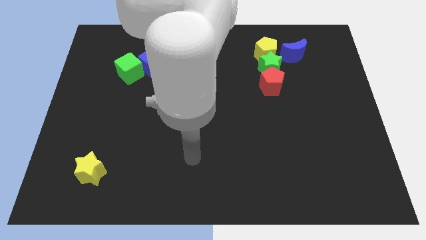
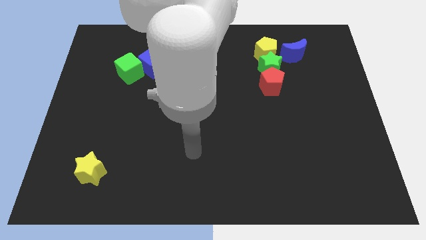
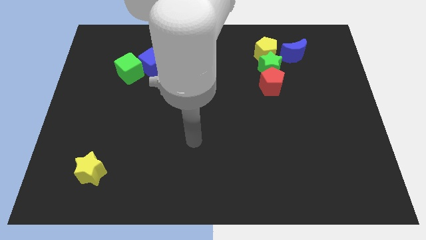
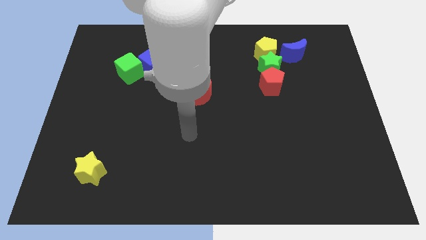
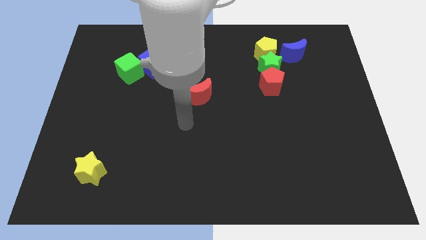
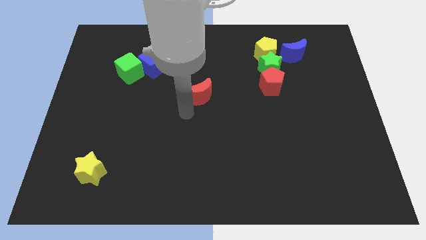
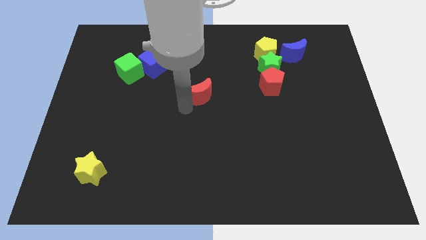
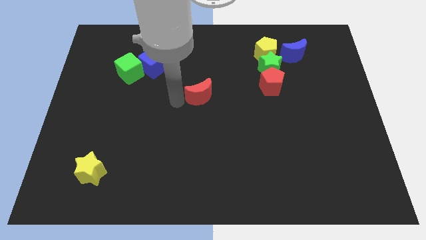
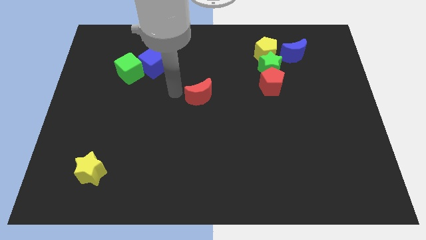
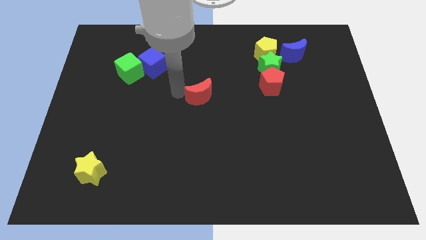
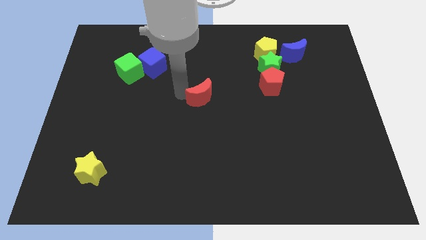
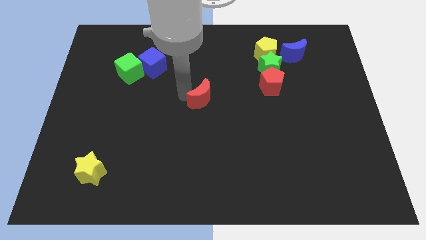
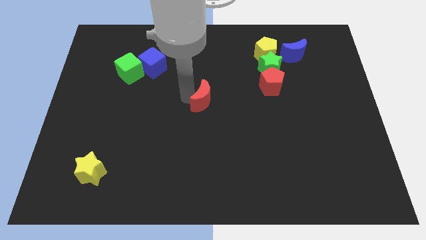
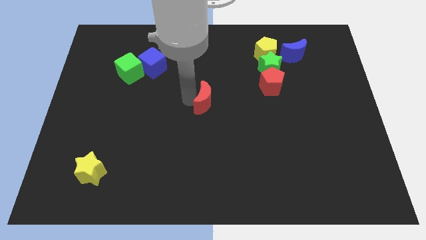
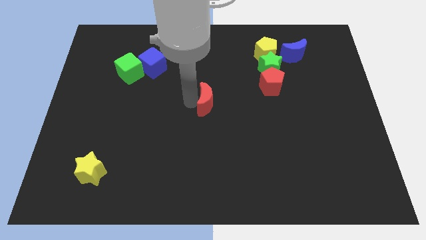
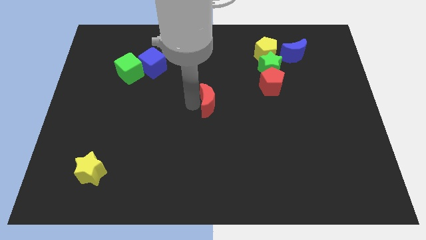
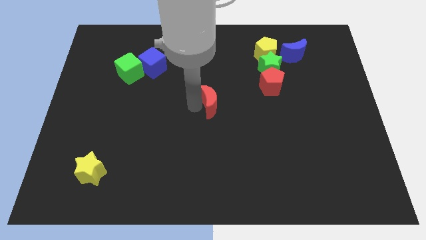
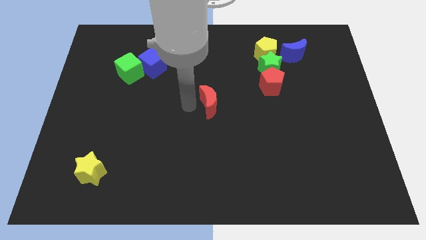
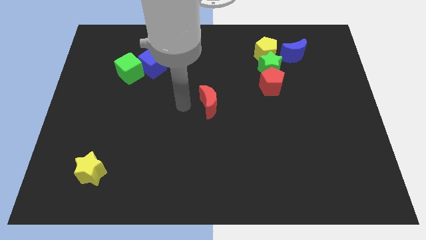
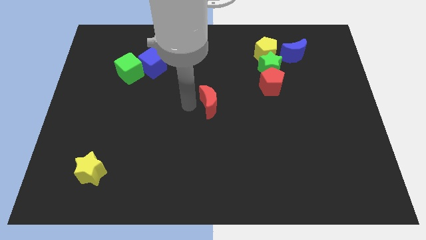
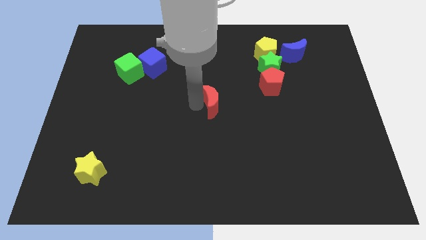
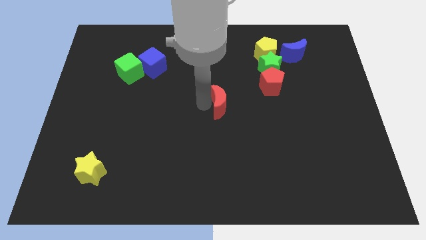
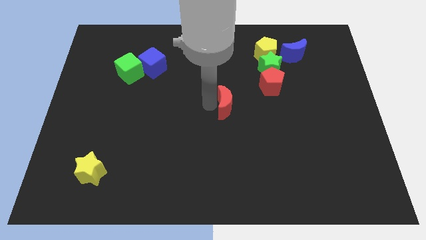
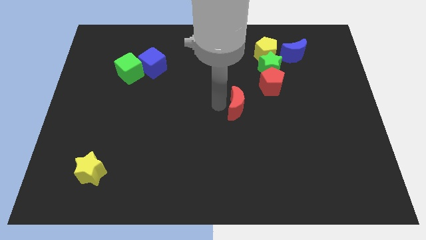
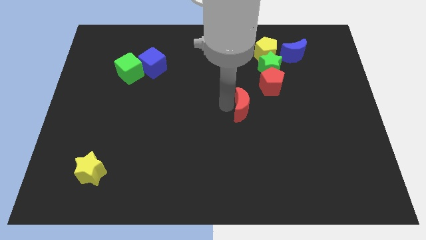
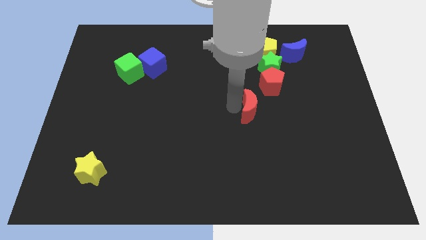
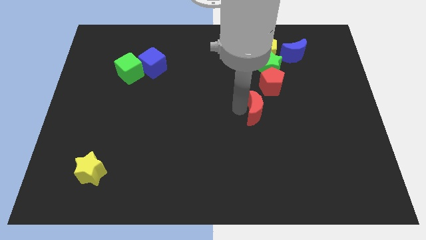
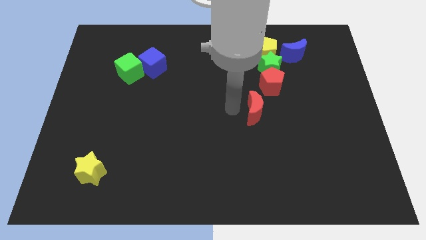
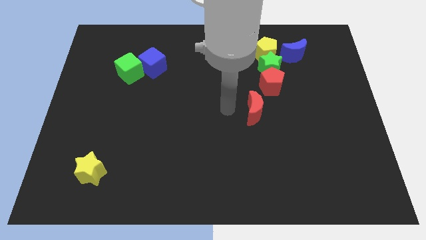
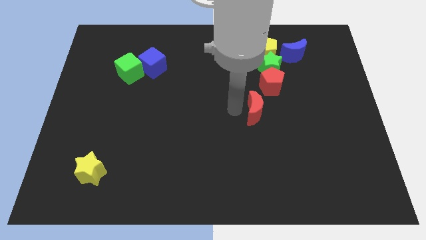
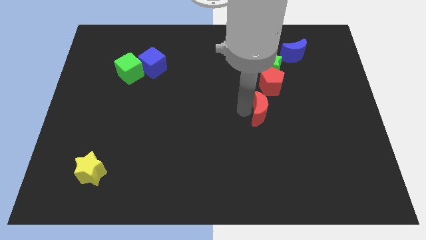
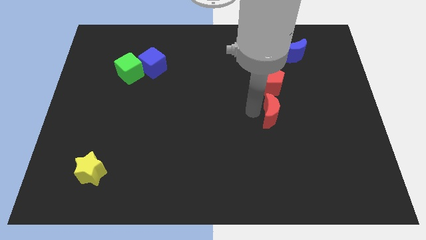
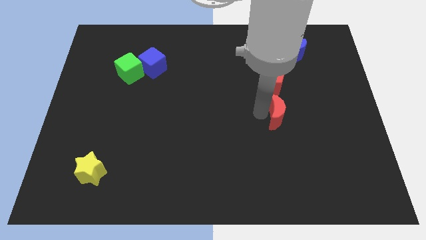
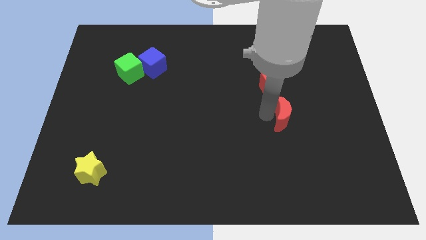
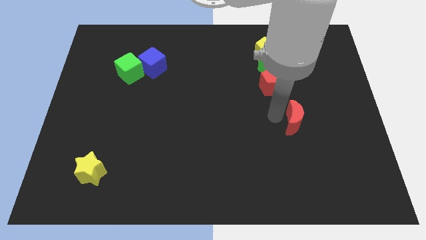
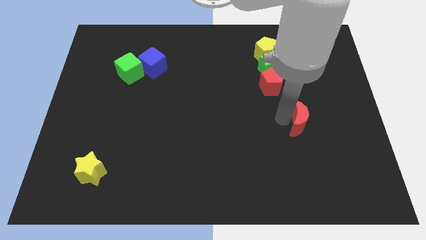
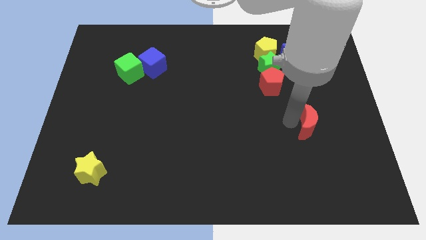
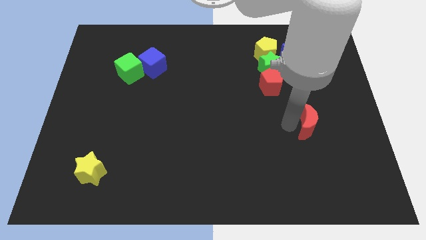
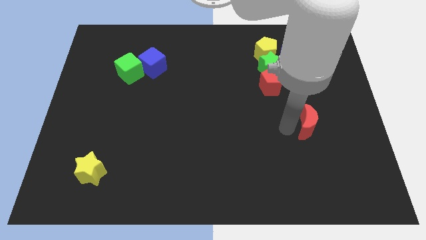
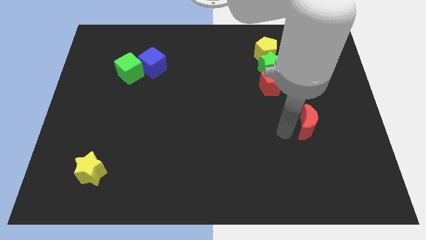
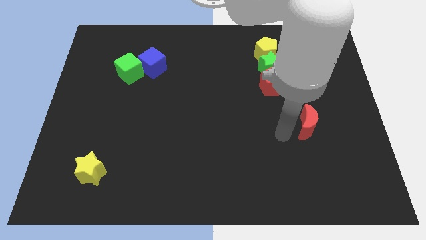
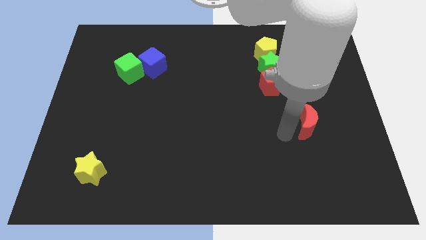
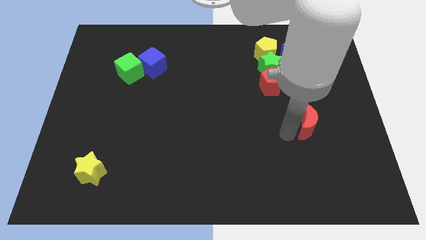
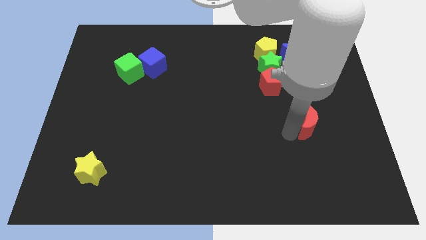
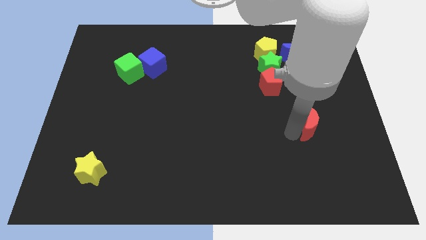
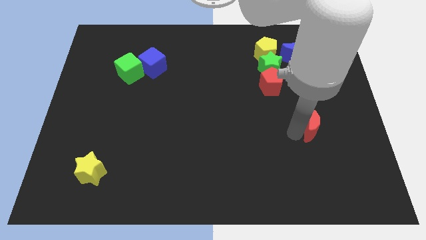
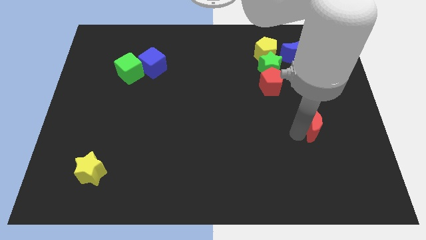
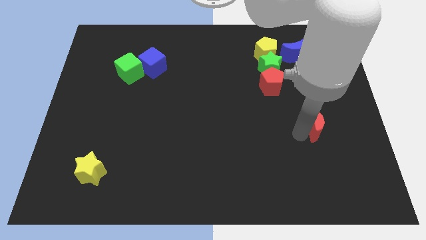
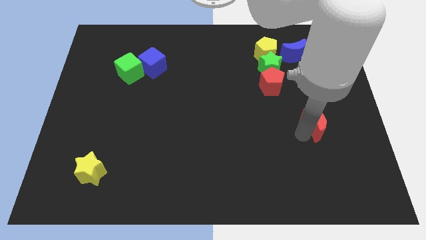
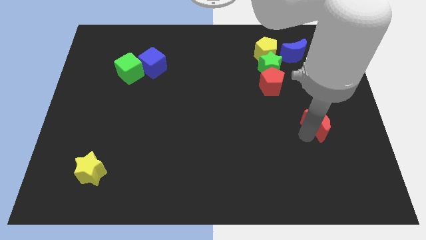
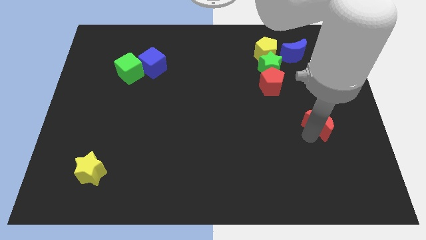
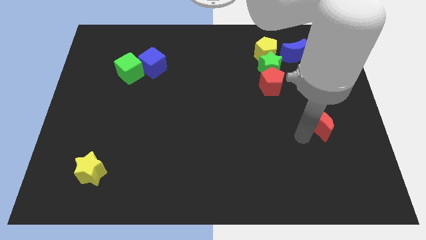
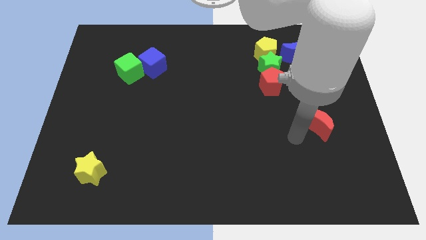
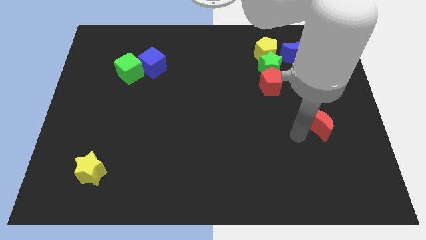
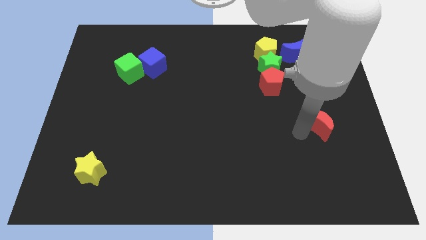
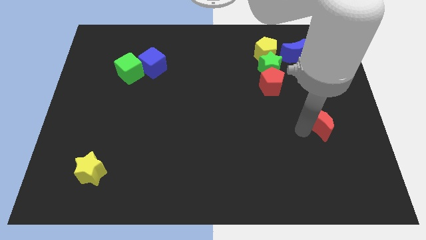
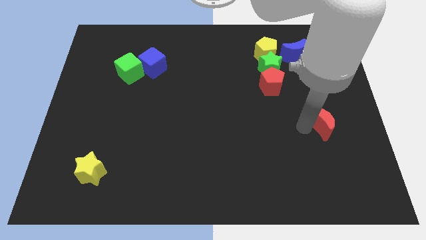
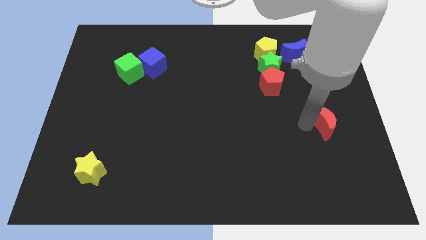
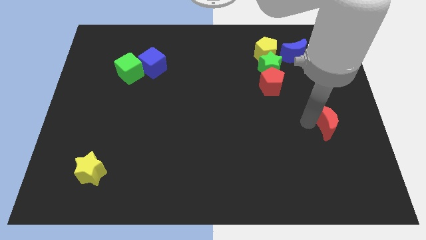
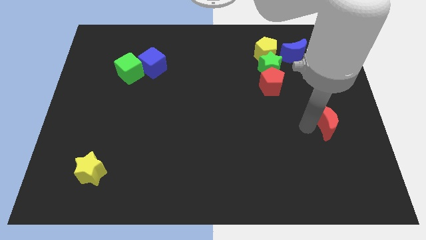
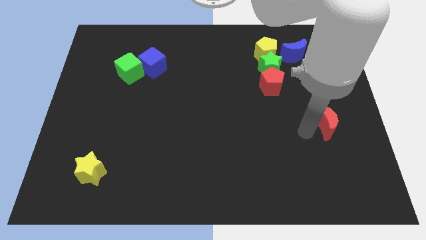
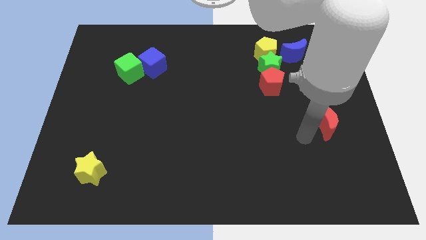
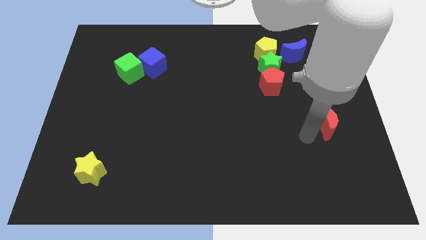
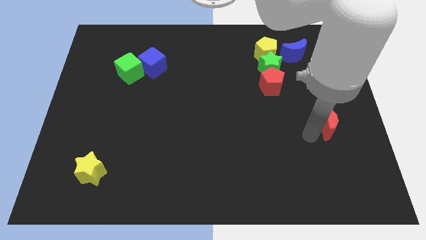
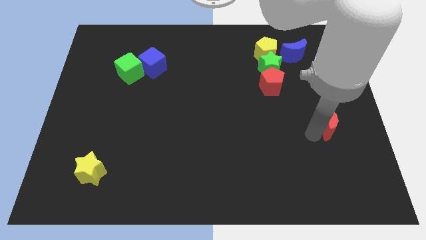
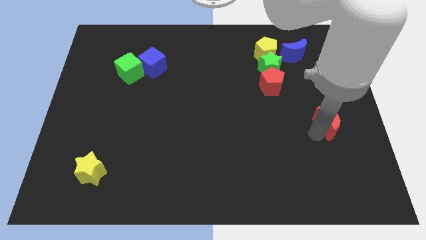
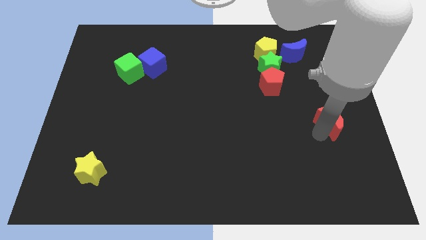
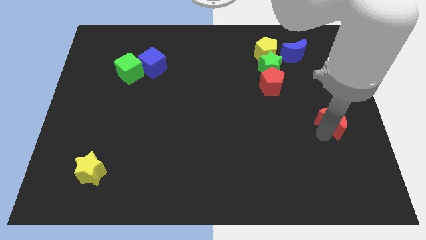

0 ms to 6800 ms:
slide the red moon to the right side of the board
